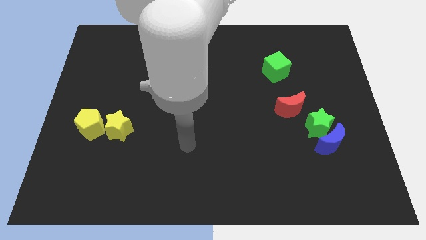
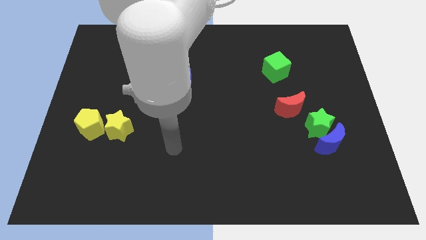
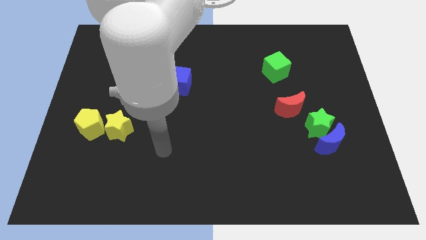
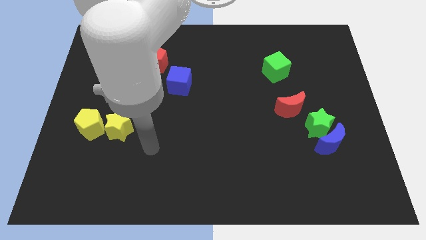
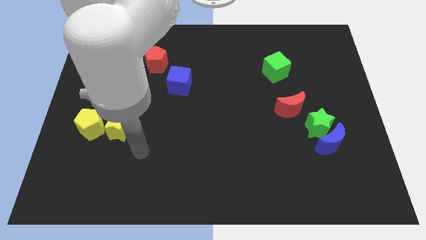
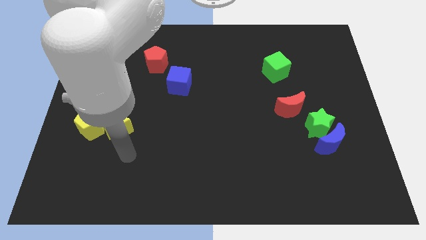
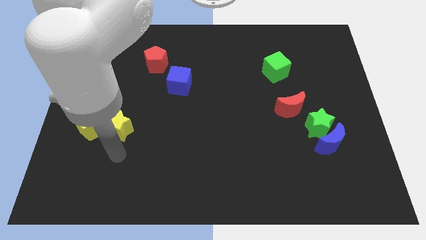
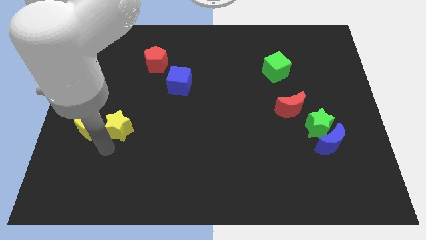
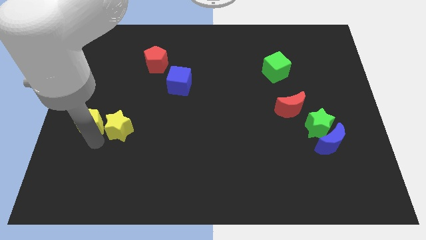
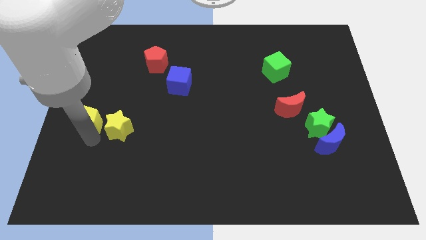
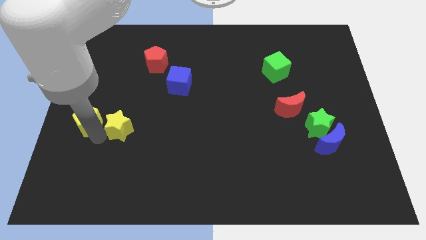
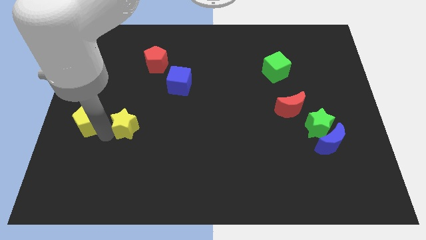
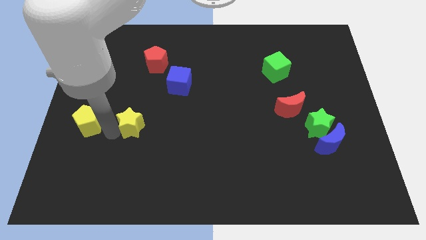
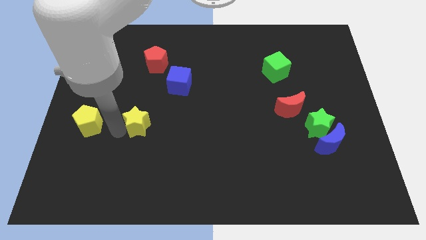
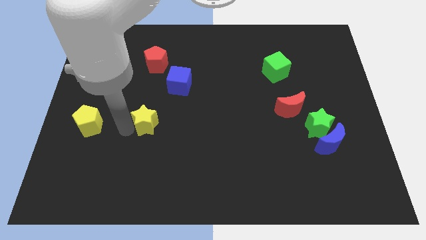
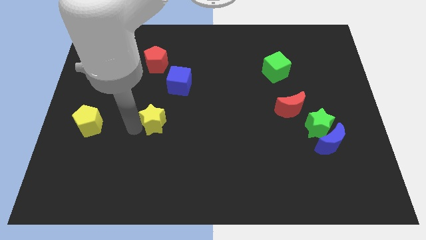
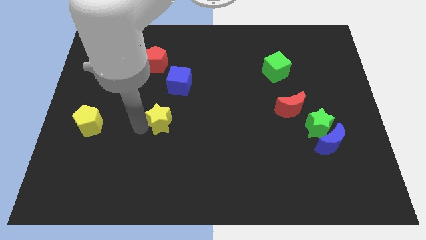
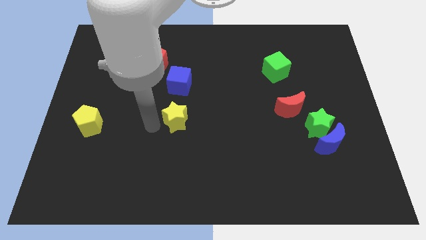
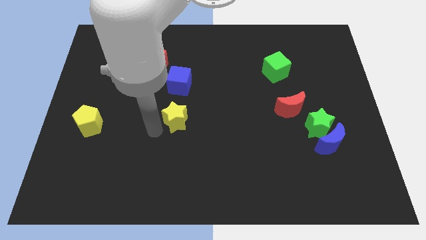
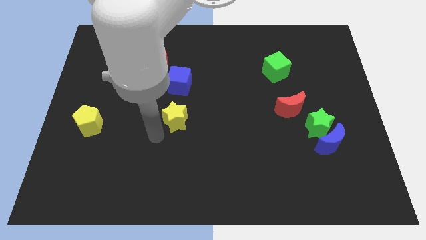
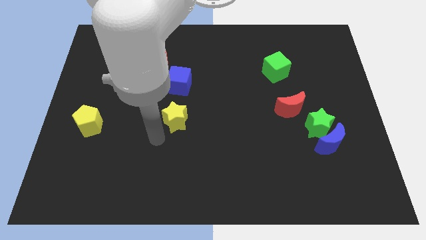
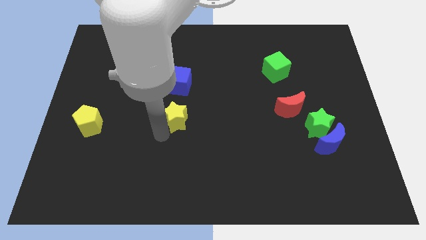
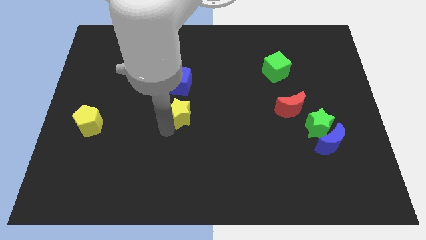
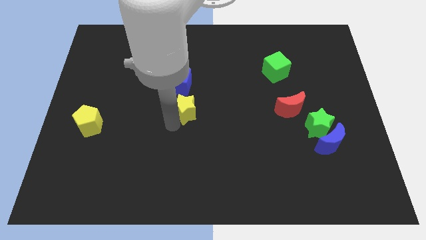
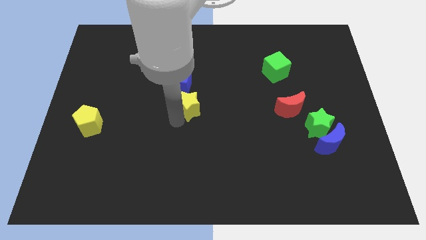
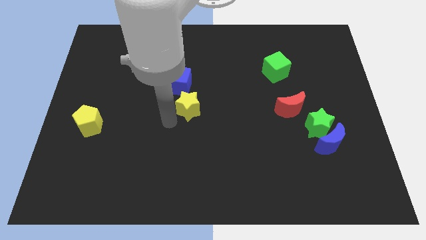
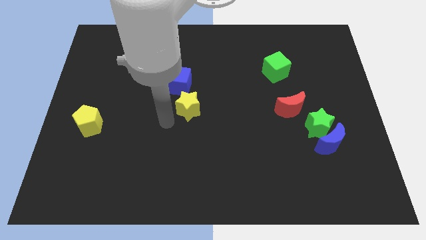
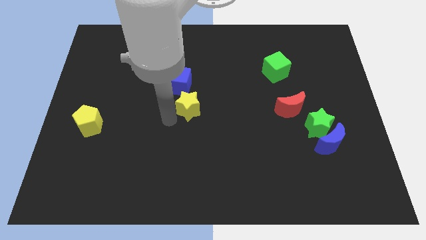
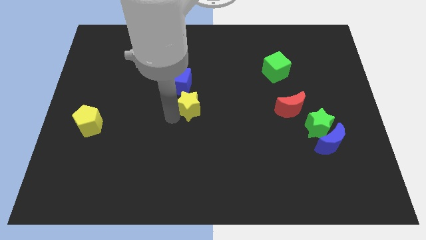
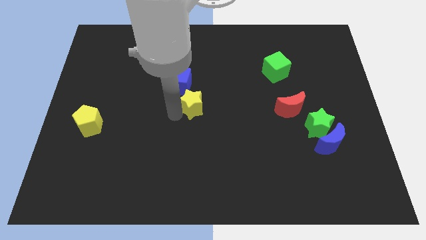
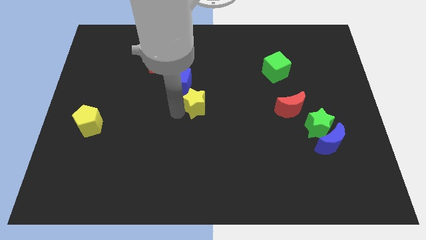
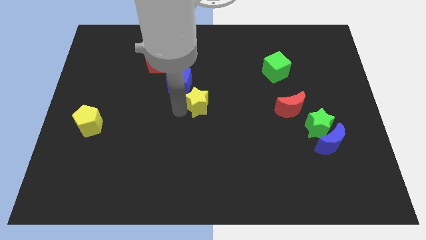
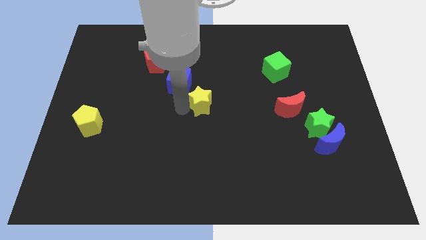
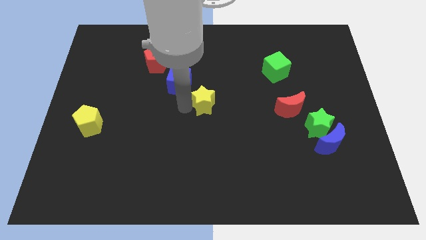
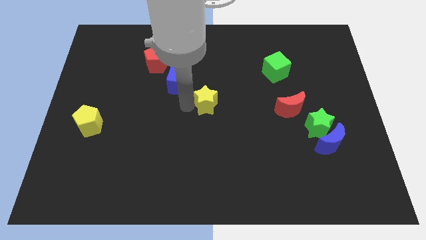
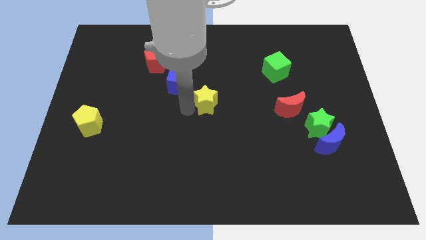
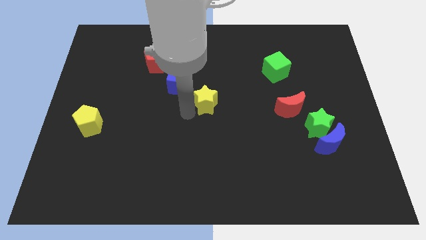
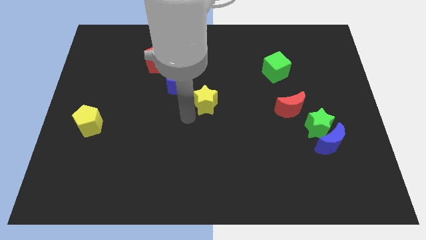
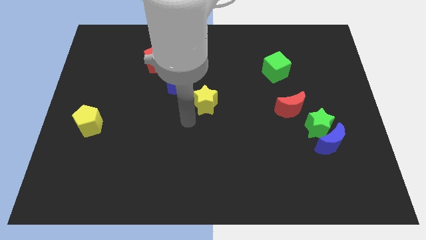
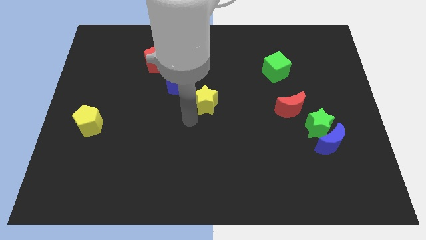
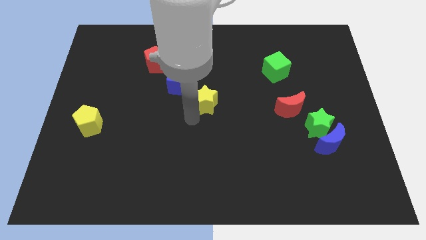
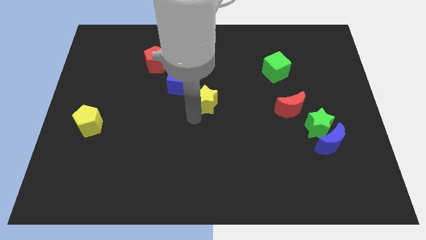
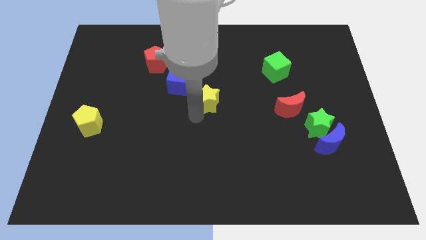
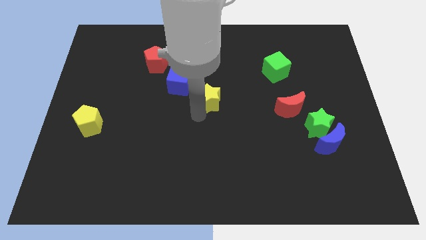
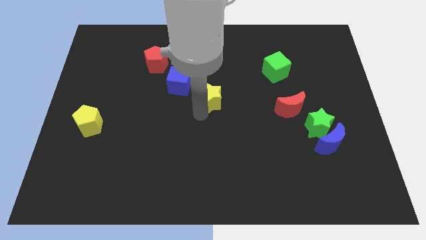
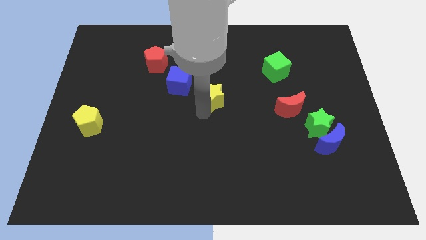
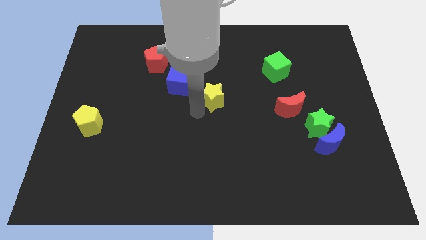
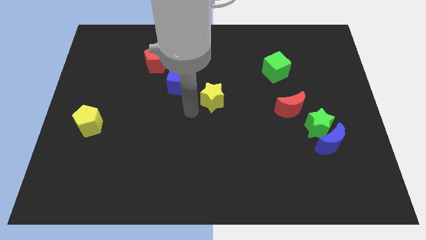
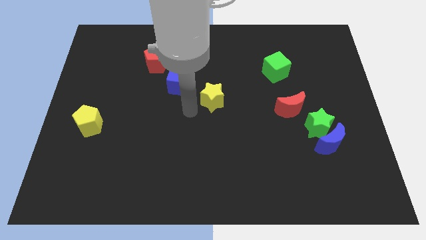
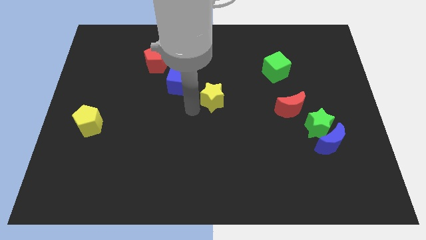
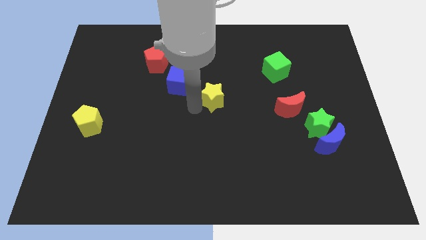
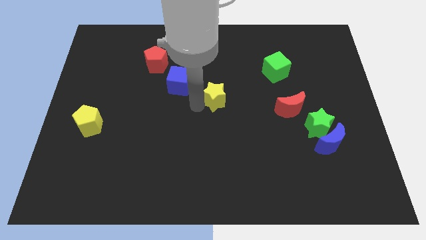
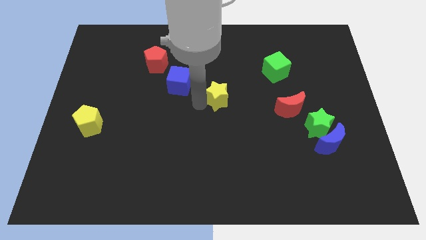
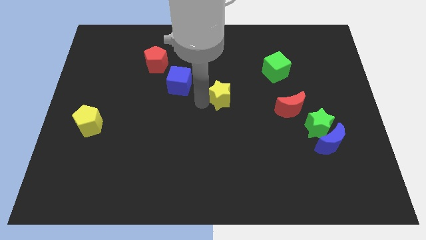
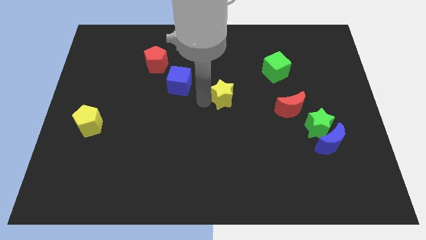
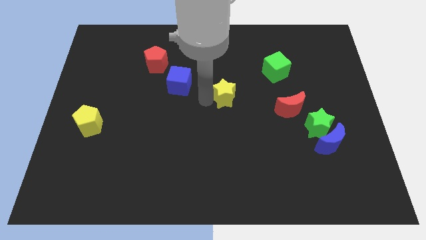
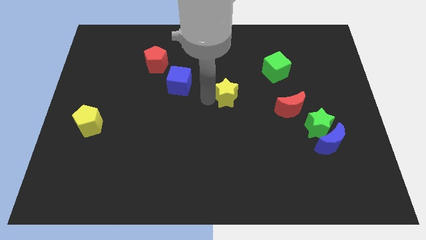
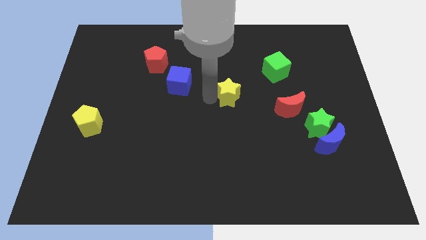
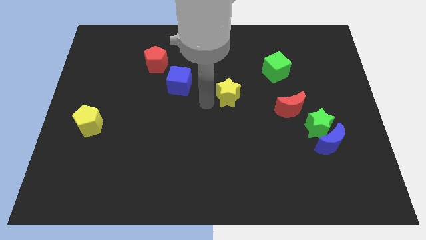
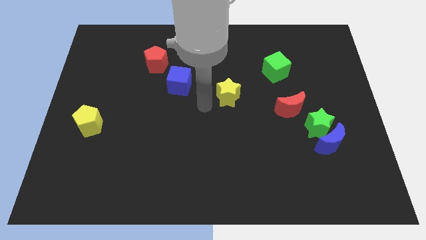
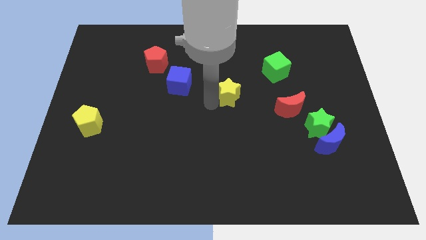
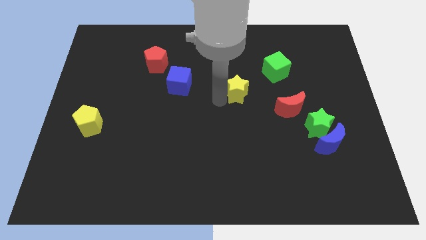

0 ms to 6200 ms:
push the yellow star diagonally down and to the left of the green cube

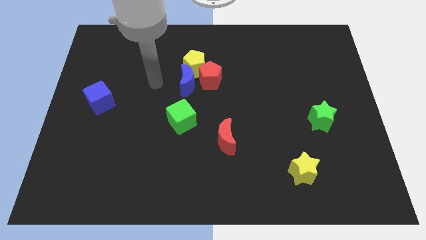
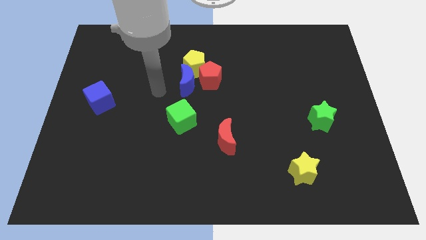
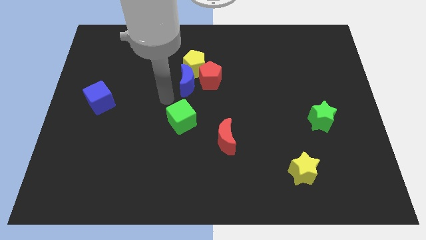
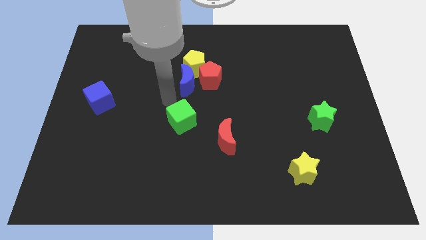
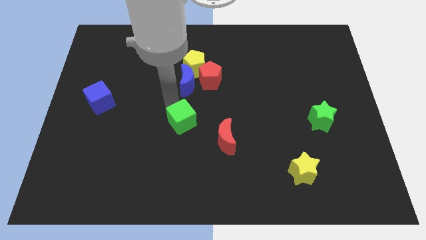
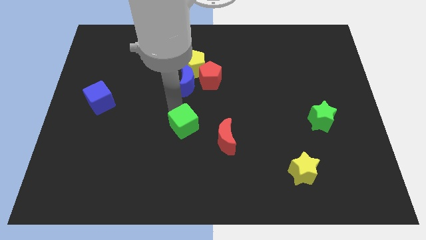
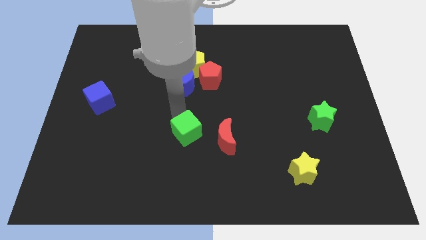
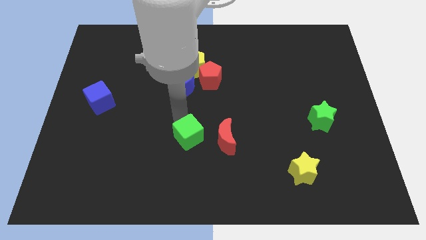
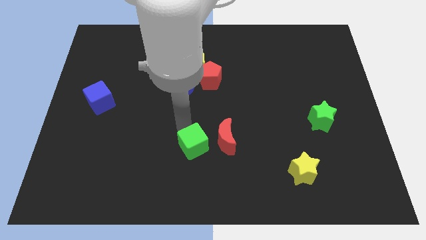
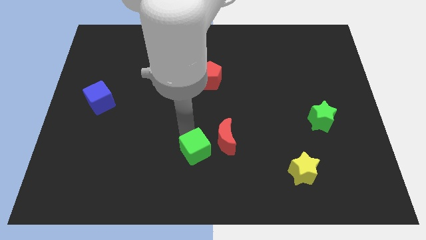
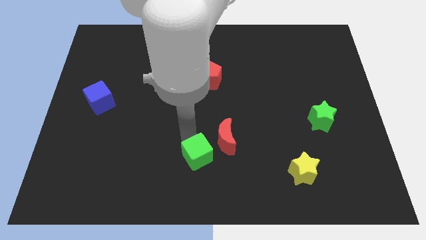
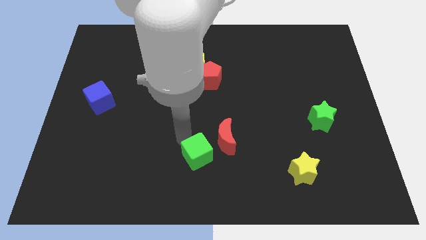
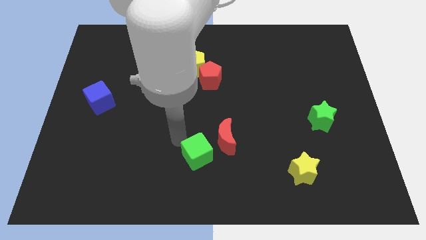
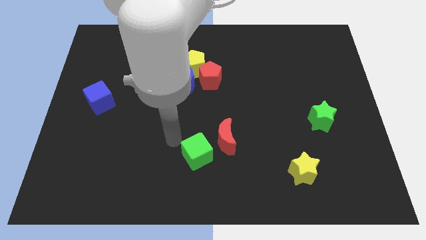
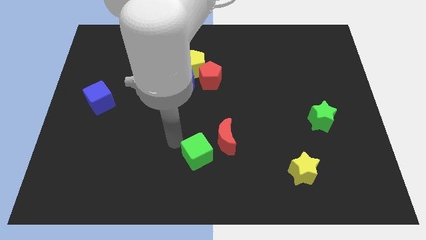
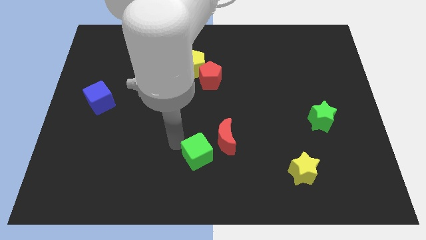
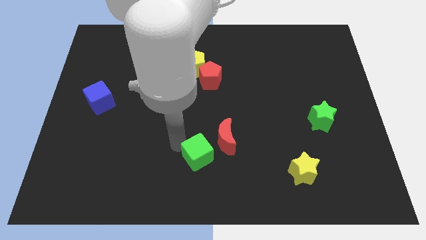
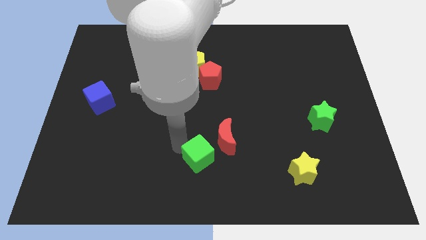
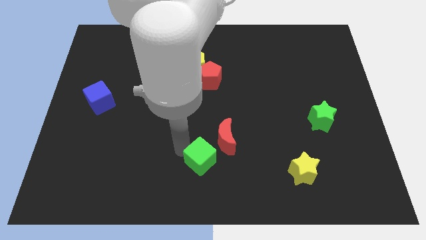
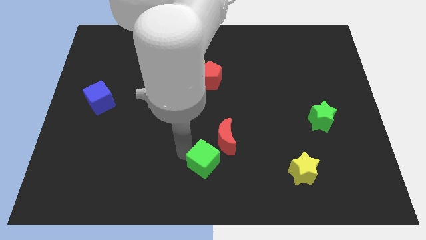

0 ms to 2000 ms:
move the green cube to the bottom side of the red moon
